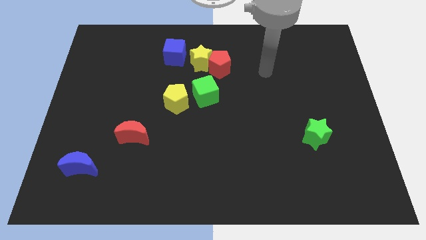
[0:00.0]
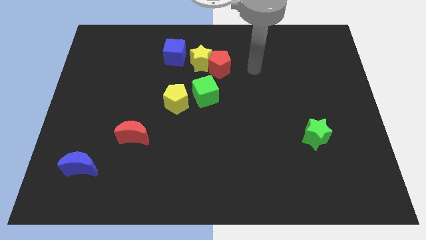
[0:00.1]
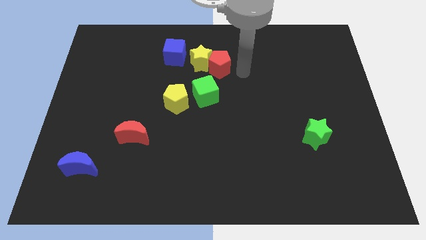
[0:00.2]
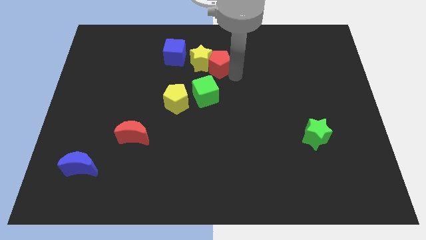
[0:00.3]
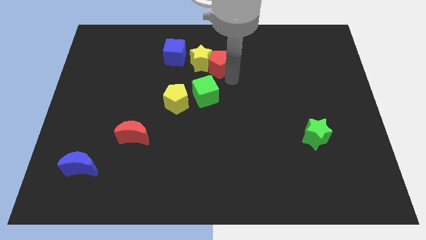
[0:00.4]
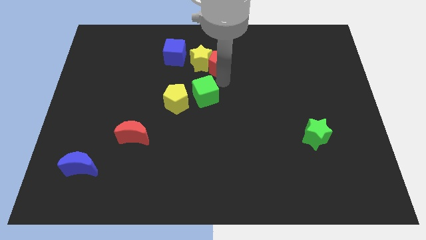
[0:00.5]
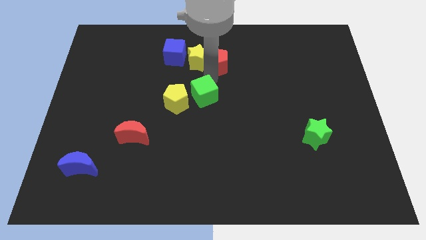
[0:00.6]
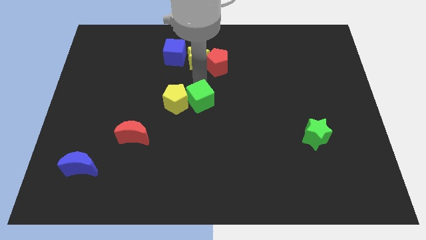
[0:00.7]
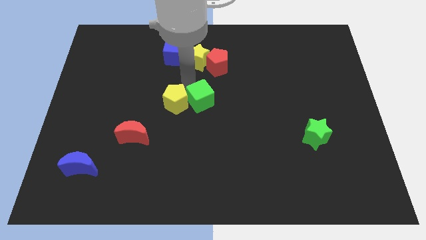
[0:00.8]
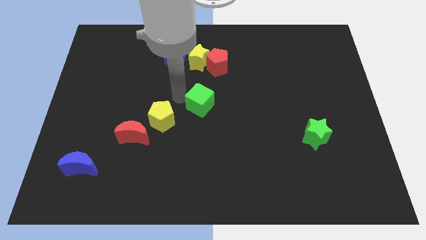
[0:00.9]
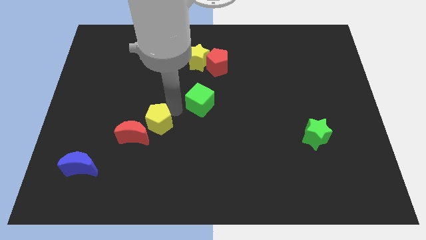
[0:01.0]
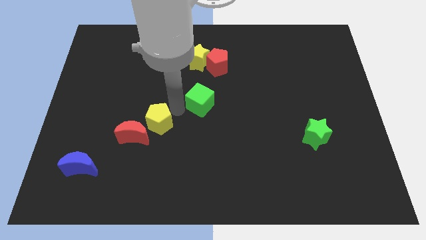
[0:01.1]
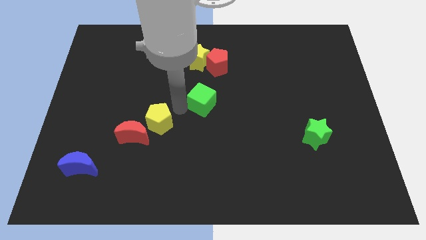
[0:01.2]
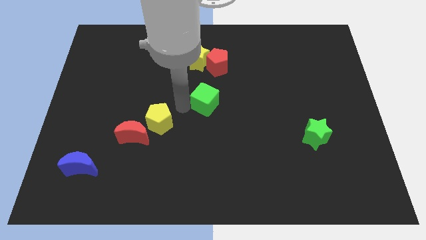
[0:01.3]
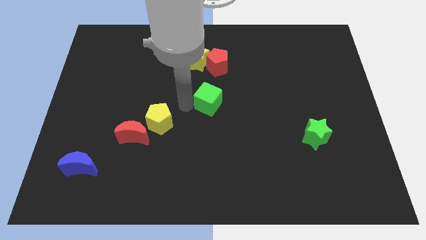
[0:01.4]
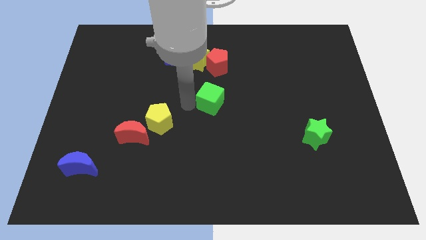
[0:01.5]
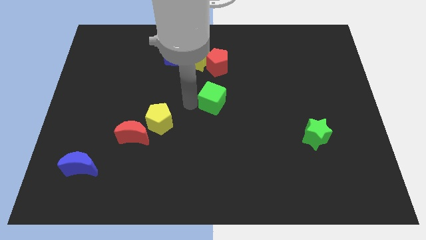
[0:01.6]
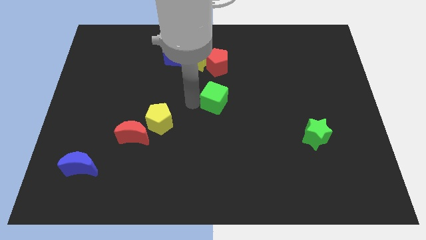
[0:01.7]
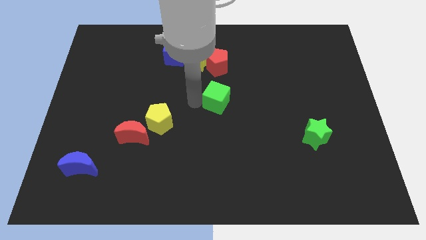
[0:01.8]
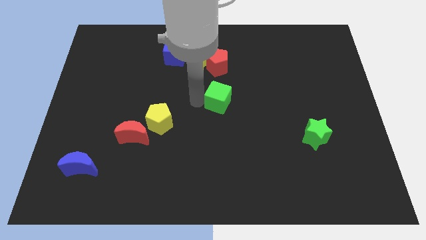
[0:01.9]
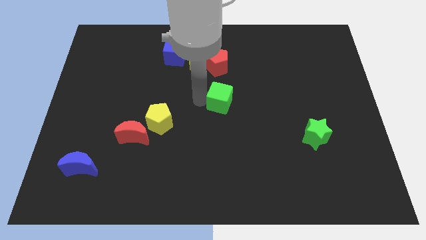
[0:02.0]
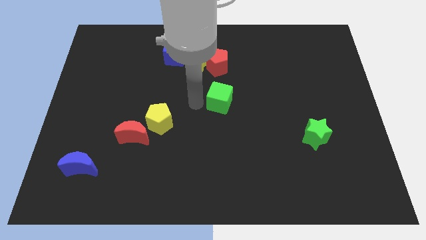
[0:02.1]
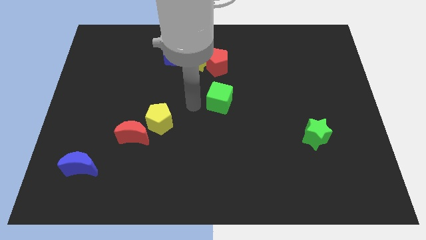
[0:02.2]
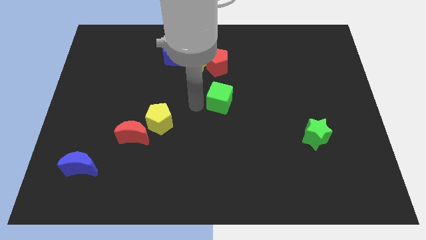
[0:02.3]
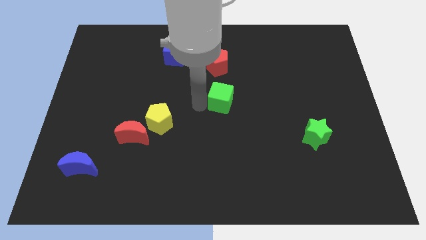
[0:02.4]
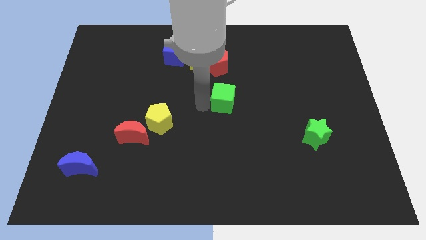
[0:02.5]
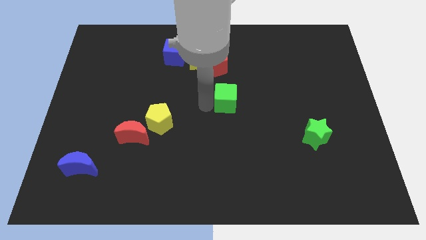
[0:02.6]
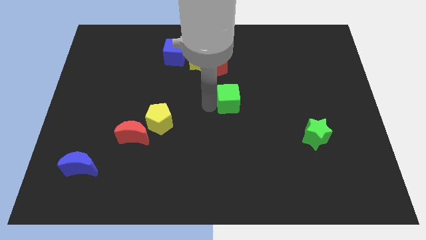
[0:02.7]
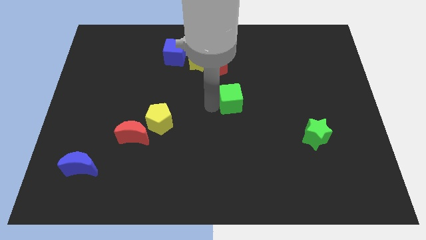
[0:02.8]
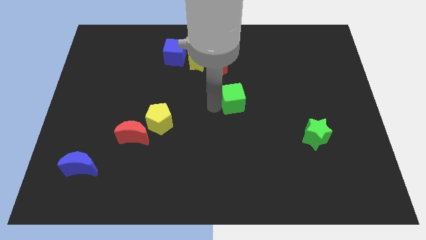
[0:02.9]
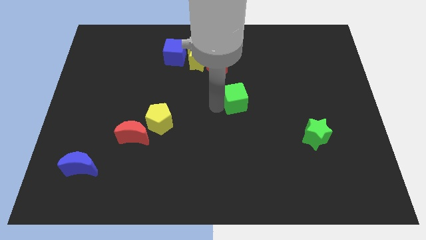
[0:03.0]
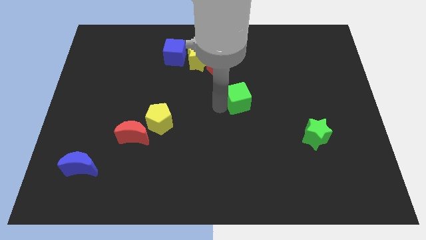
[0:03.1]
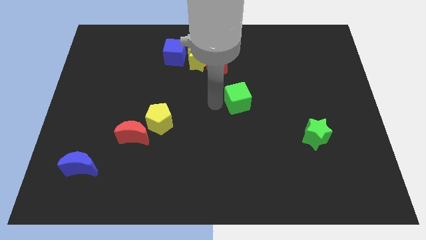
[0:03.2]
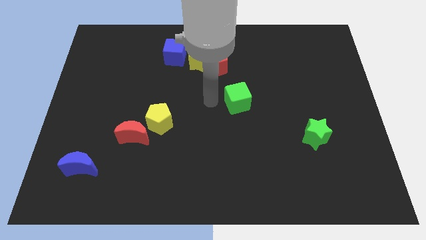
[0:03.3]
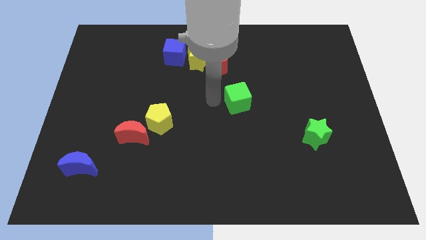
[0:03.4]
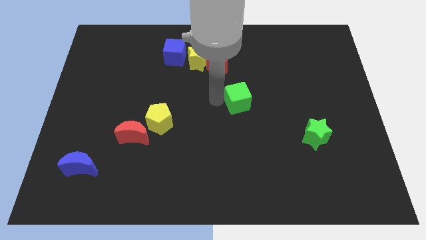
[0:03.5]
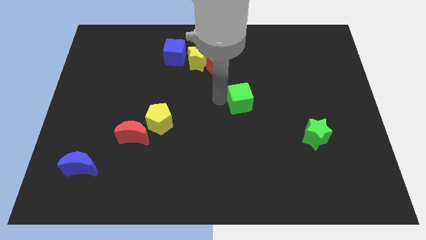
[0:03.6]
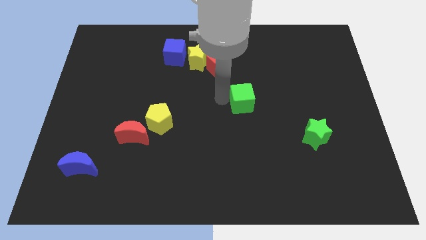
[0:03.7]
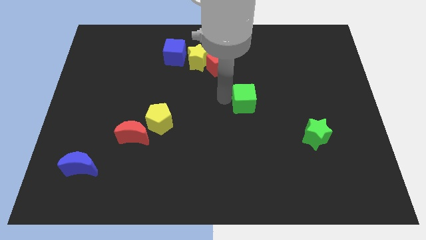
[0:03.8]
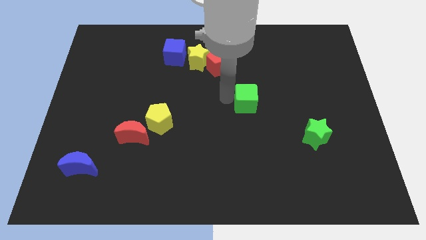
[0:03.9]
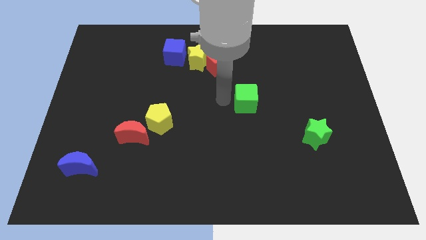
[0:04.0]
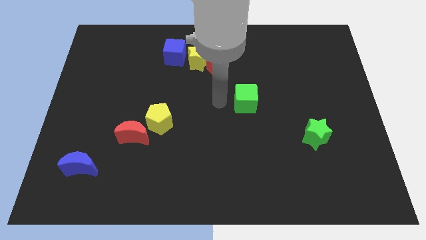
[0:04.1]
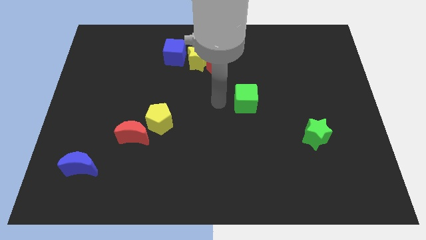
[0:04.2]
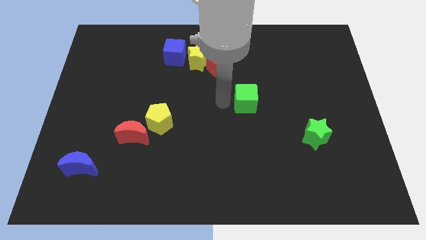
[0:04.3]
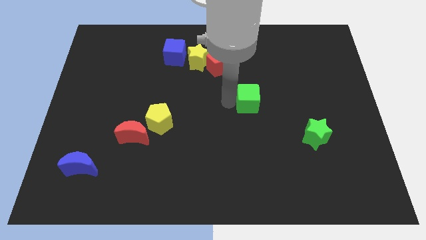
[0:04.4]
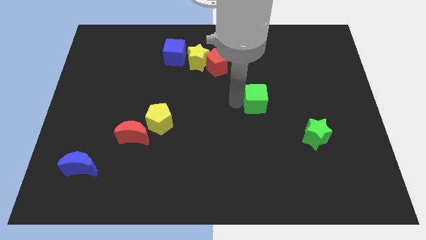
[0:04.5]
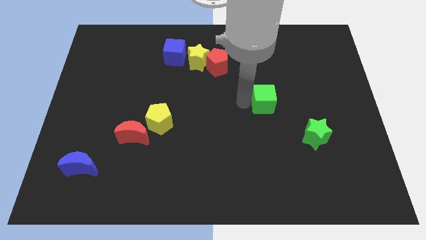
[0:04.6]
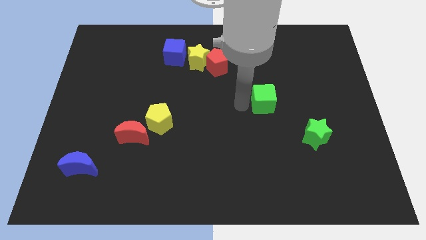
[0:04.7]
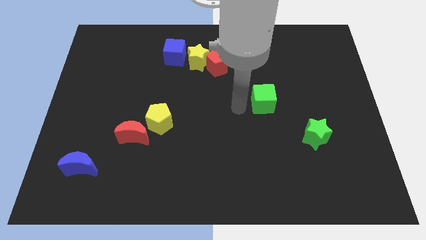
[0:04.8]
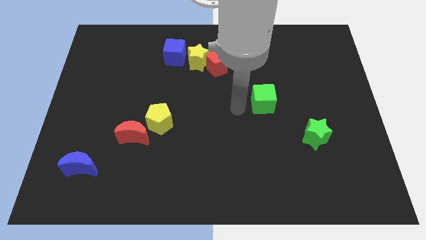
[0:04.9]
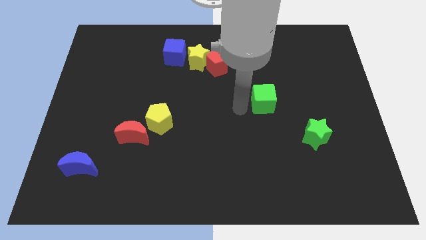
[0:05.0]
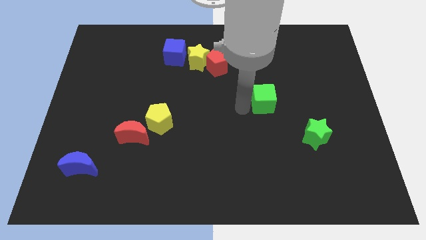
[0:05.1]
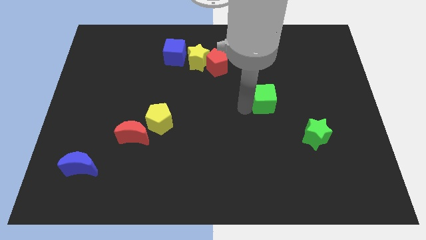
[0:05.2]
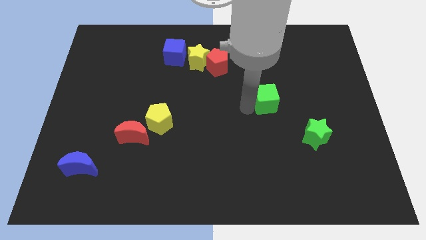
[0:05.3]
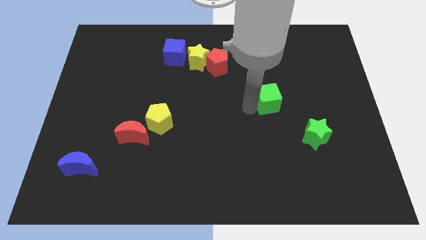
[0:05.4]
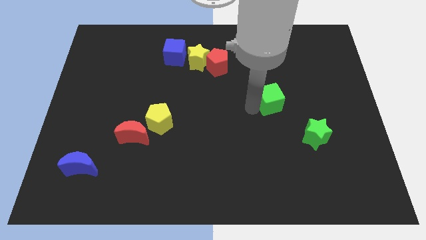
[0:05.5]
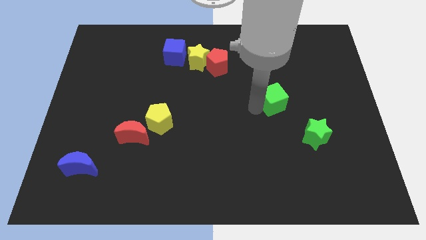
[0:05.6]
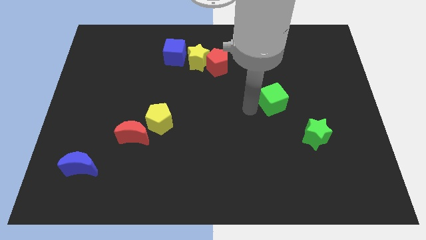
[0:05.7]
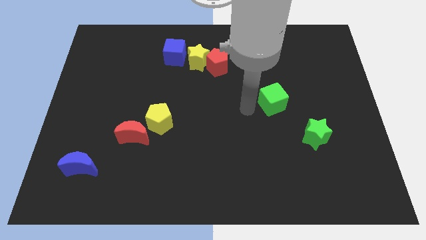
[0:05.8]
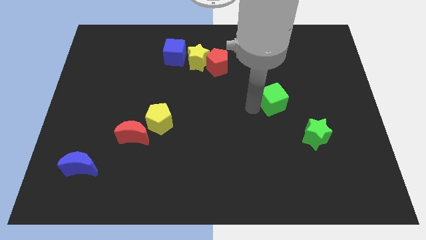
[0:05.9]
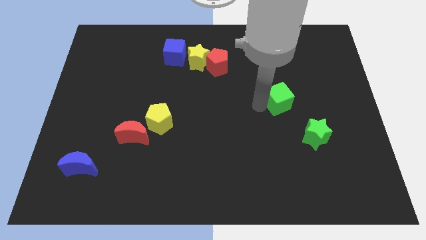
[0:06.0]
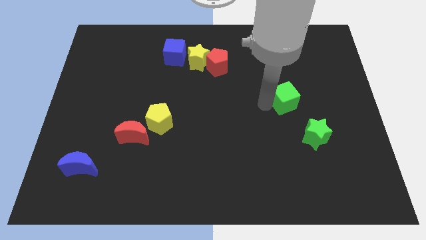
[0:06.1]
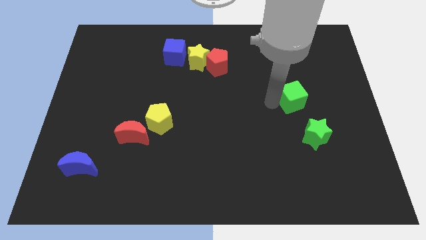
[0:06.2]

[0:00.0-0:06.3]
move the green cube to the top of the green star

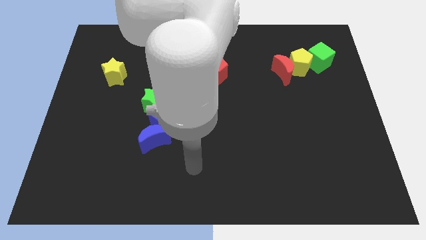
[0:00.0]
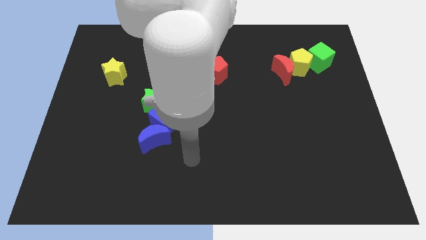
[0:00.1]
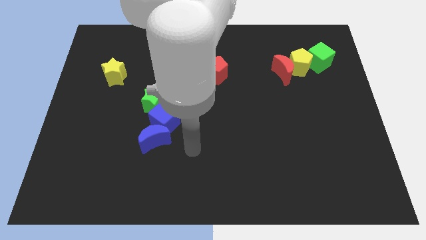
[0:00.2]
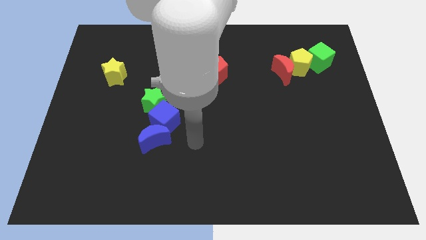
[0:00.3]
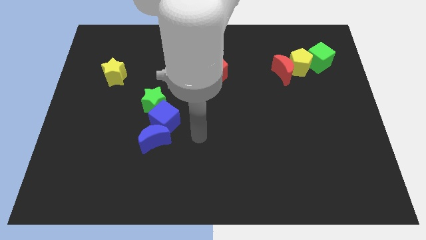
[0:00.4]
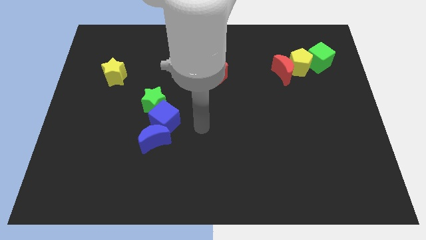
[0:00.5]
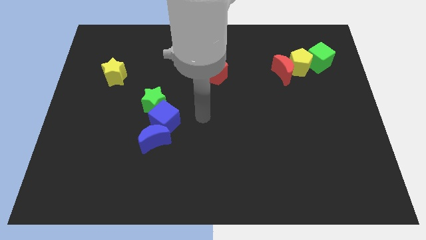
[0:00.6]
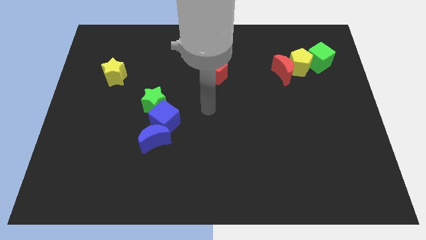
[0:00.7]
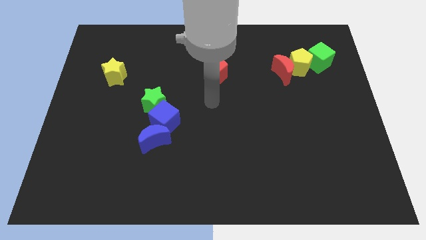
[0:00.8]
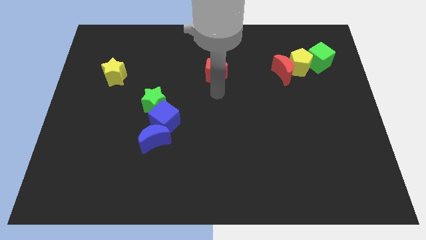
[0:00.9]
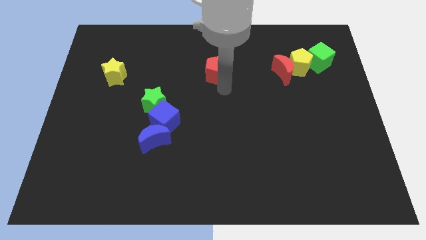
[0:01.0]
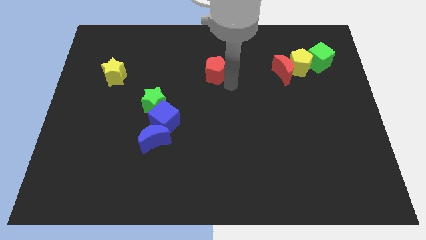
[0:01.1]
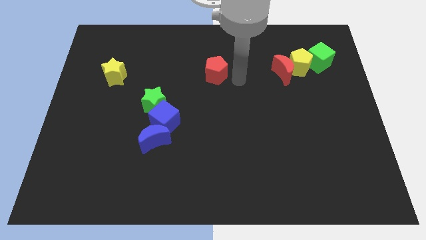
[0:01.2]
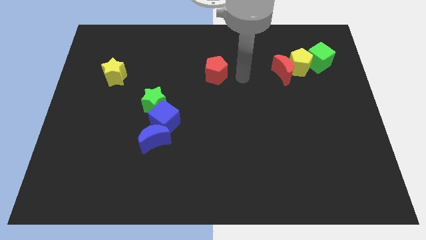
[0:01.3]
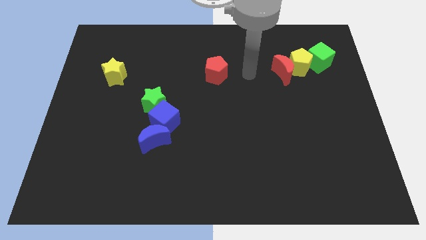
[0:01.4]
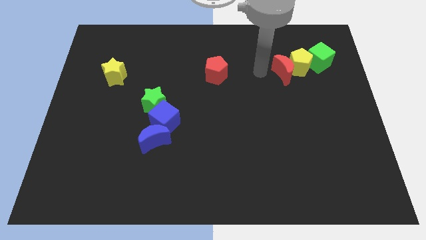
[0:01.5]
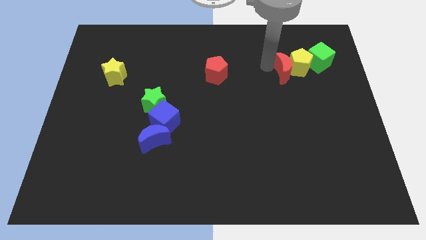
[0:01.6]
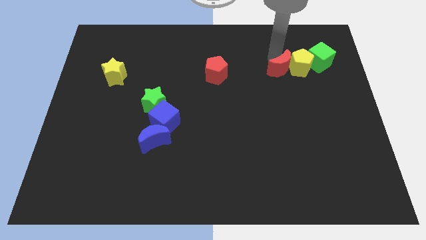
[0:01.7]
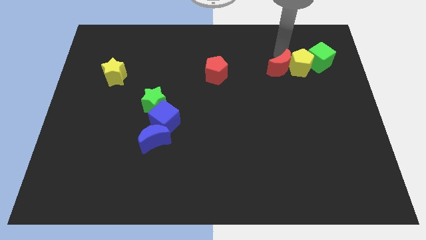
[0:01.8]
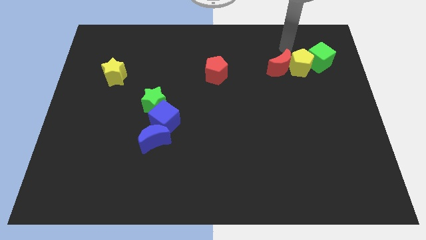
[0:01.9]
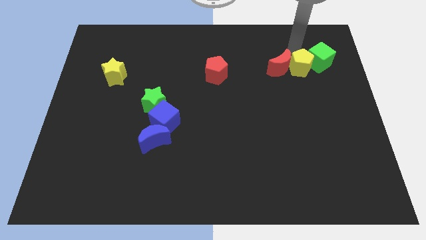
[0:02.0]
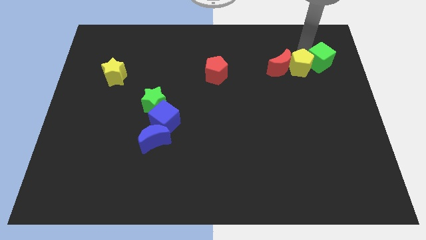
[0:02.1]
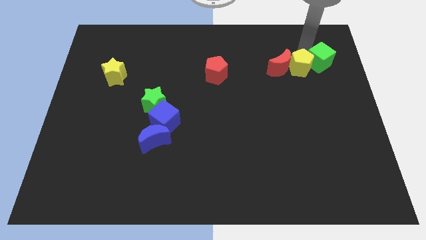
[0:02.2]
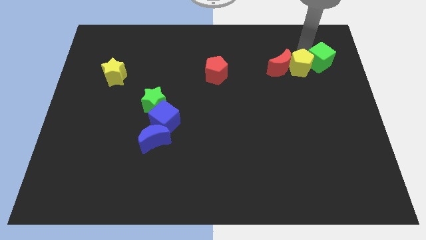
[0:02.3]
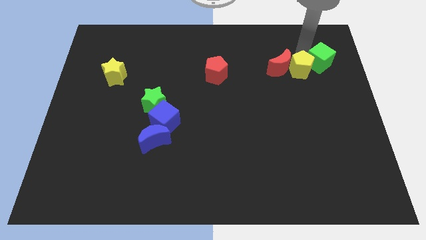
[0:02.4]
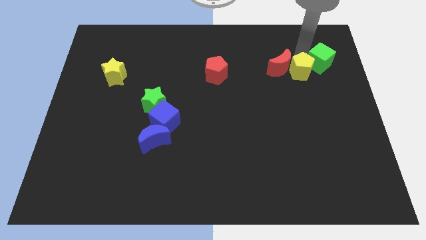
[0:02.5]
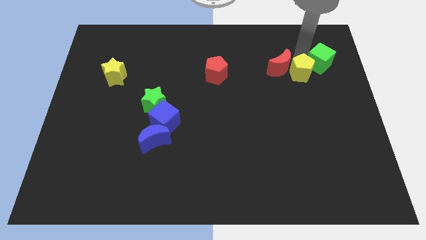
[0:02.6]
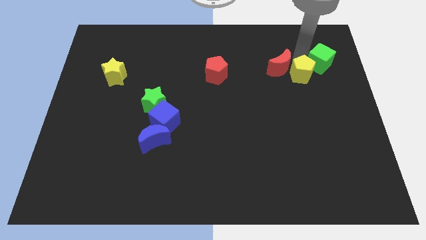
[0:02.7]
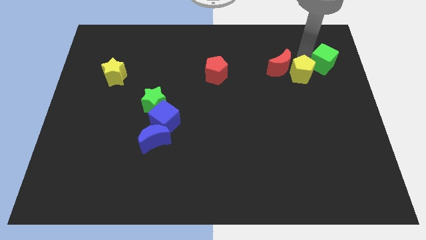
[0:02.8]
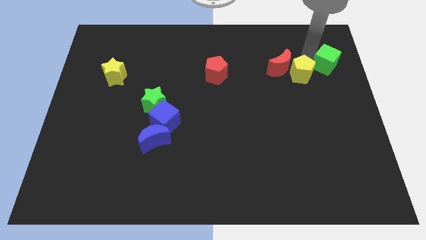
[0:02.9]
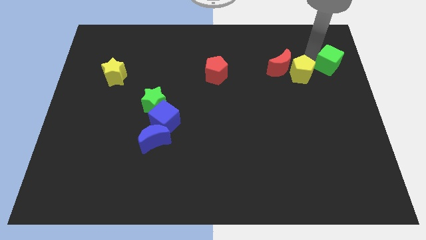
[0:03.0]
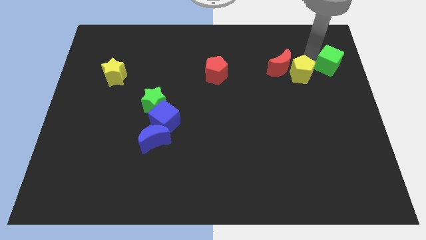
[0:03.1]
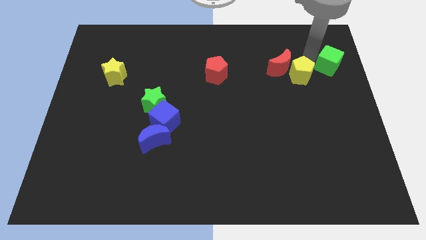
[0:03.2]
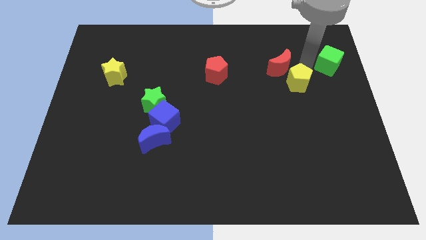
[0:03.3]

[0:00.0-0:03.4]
move the yellow pentagon below the red moon
